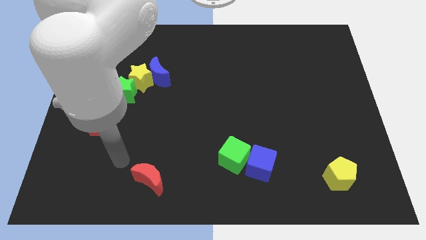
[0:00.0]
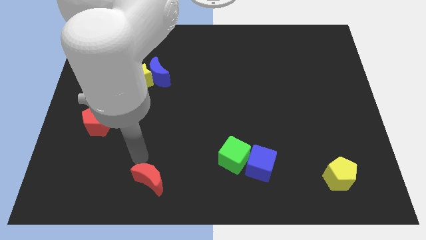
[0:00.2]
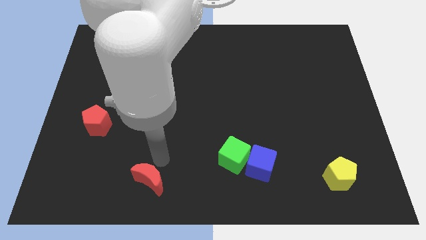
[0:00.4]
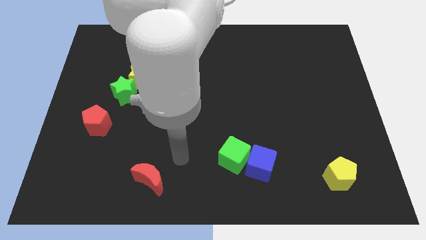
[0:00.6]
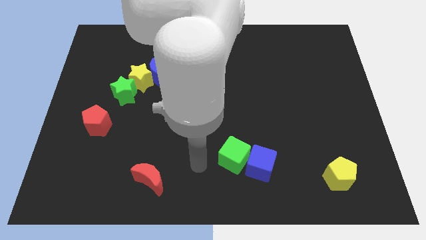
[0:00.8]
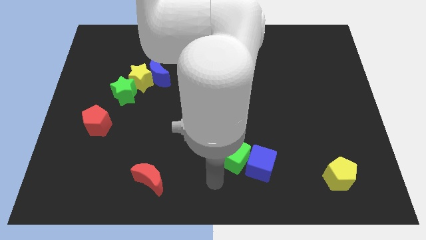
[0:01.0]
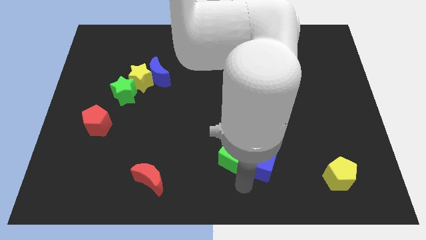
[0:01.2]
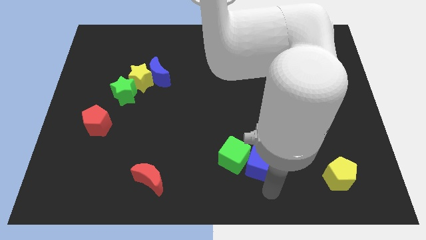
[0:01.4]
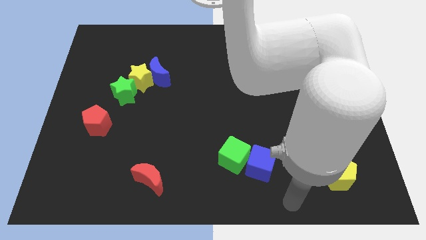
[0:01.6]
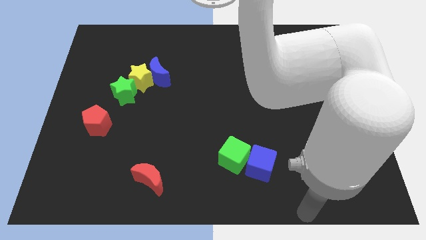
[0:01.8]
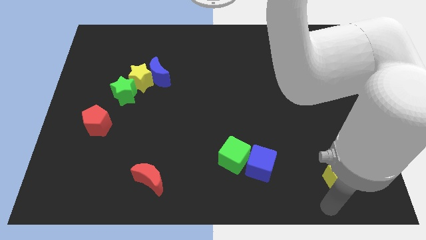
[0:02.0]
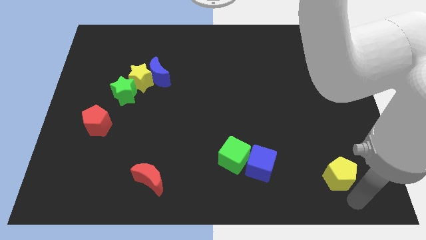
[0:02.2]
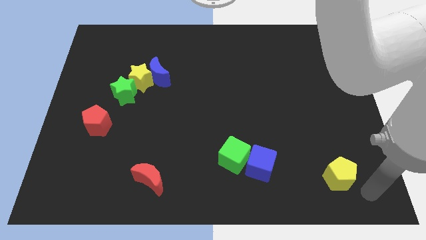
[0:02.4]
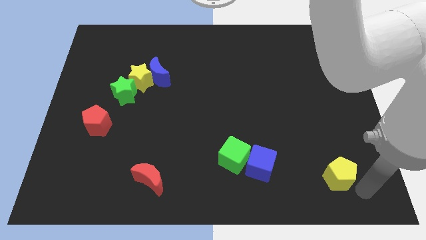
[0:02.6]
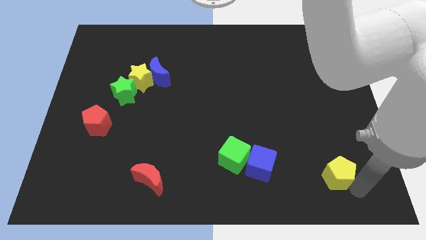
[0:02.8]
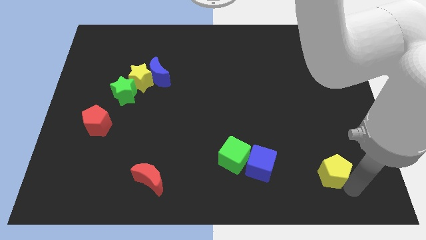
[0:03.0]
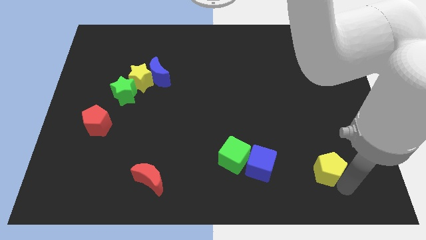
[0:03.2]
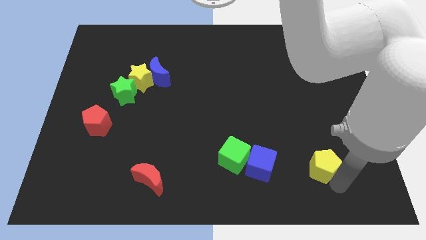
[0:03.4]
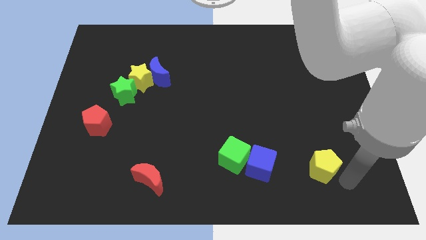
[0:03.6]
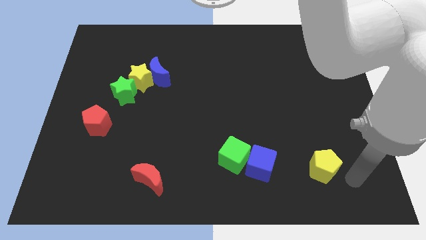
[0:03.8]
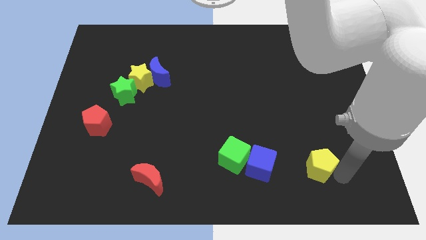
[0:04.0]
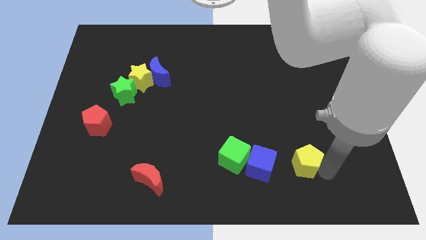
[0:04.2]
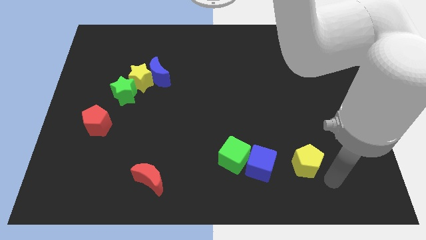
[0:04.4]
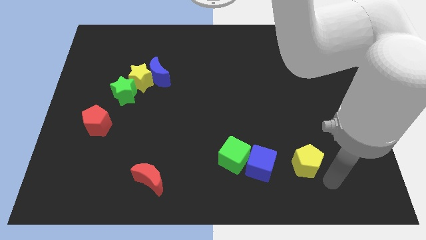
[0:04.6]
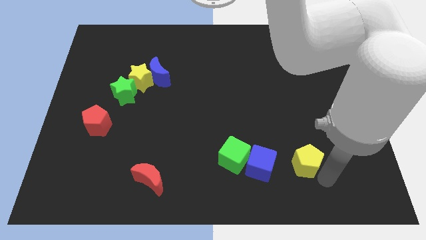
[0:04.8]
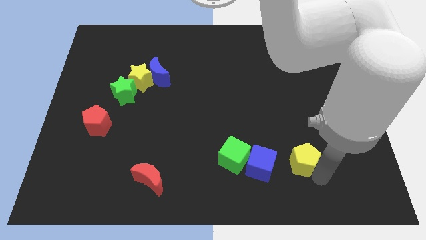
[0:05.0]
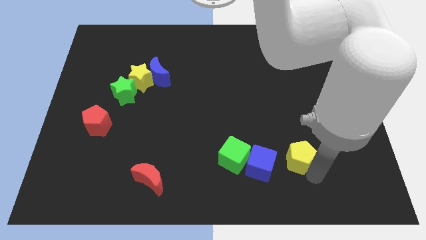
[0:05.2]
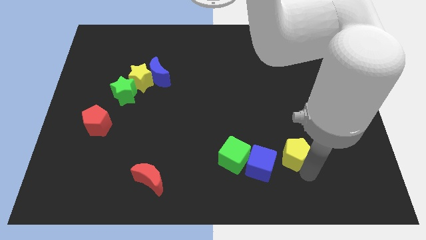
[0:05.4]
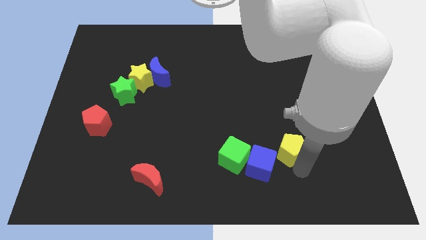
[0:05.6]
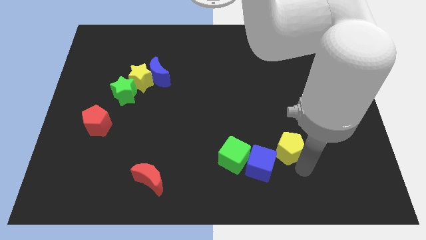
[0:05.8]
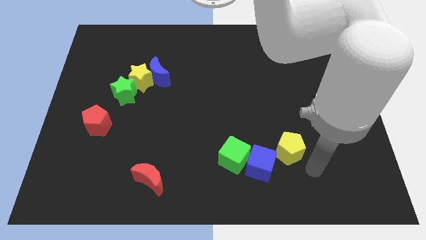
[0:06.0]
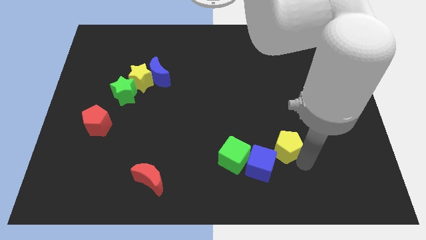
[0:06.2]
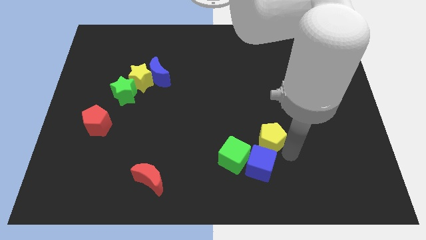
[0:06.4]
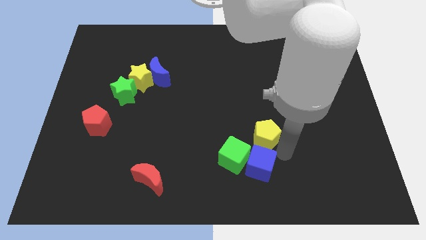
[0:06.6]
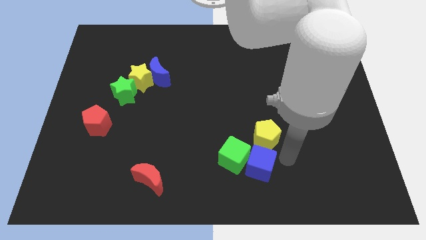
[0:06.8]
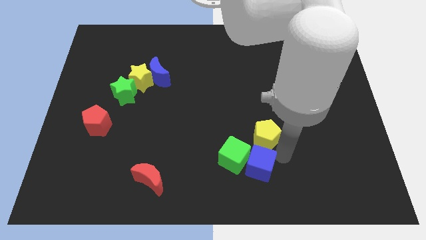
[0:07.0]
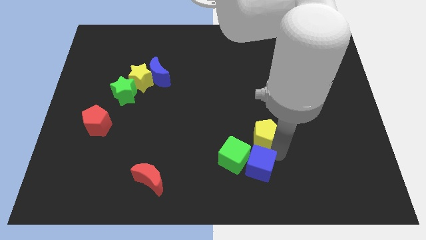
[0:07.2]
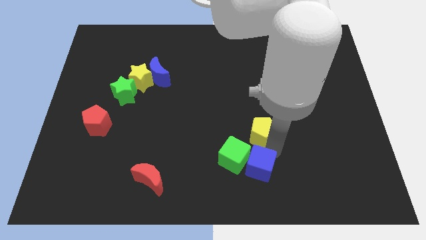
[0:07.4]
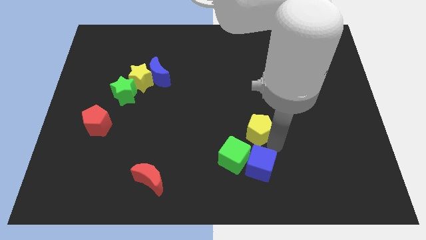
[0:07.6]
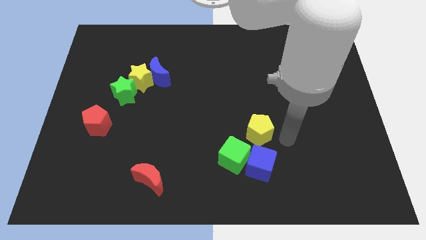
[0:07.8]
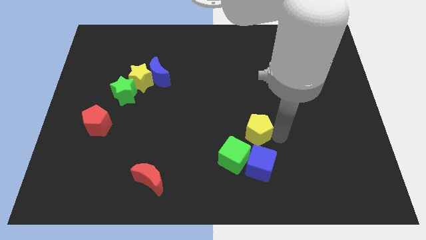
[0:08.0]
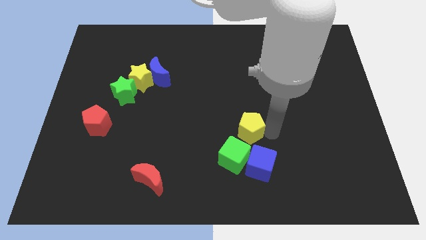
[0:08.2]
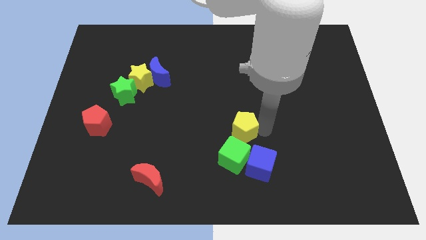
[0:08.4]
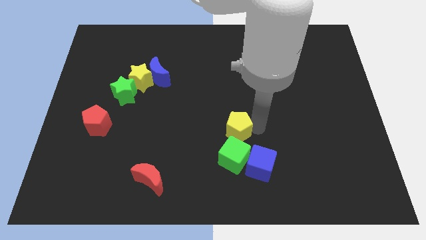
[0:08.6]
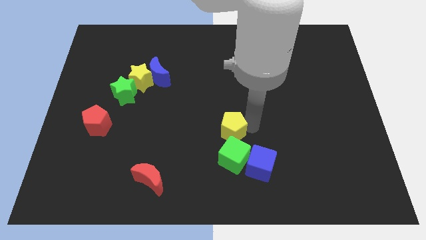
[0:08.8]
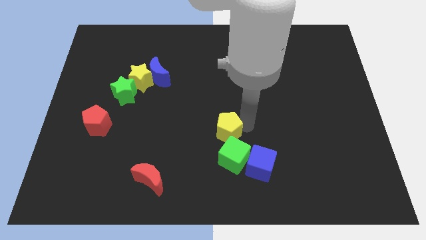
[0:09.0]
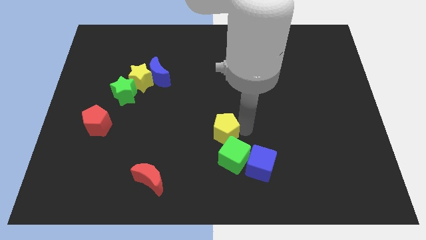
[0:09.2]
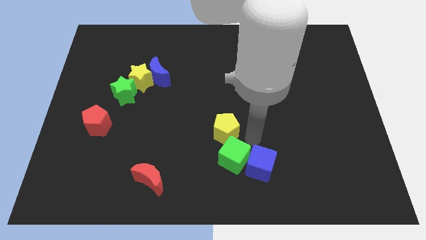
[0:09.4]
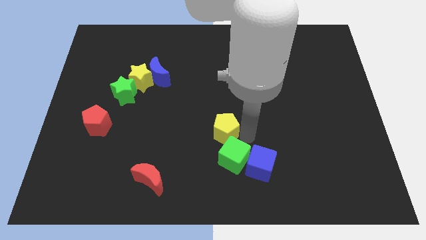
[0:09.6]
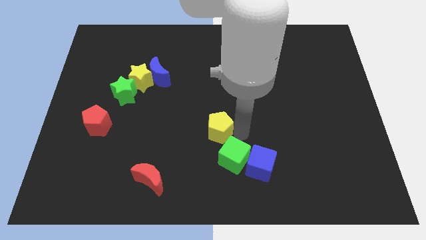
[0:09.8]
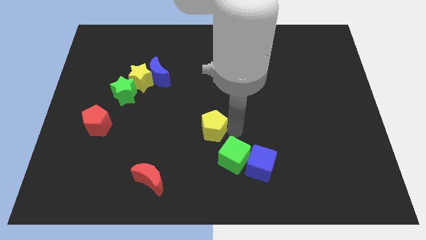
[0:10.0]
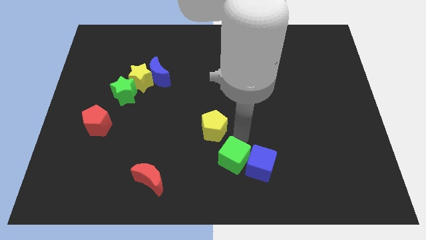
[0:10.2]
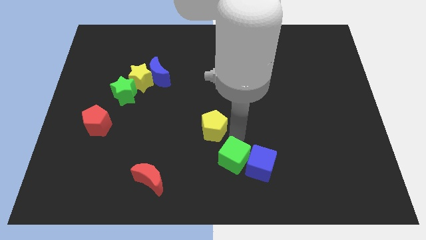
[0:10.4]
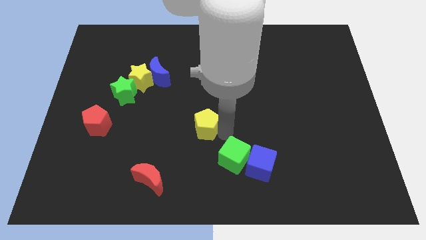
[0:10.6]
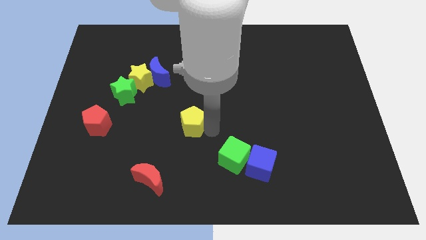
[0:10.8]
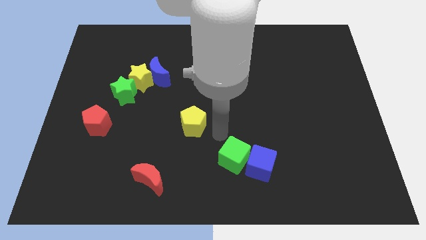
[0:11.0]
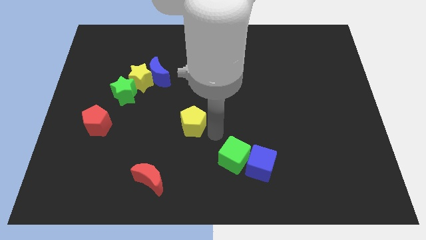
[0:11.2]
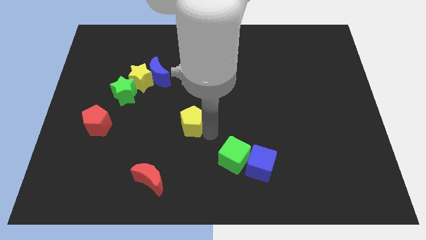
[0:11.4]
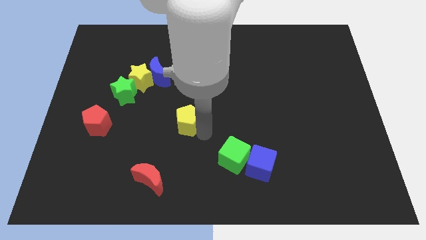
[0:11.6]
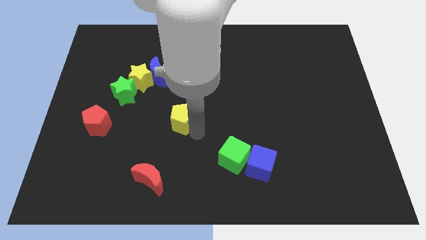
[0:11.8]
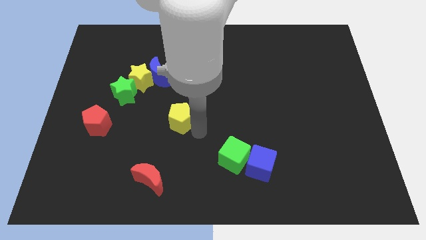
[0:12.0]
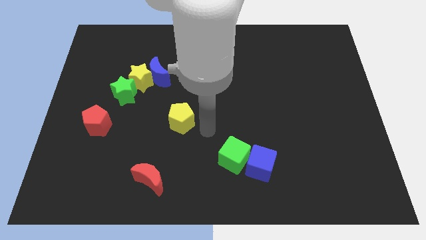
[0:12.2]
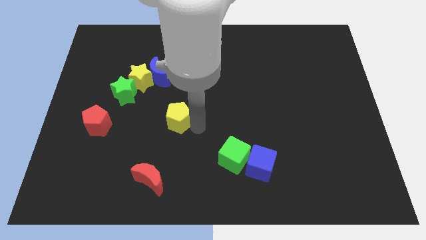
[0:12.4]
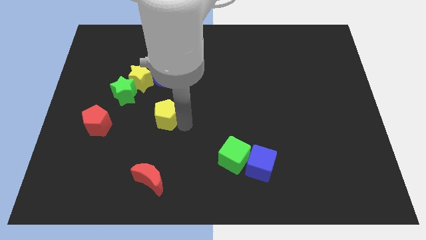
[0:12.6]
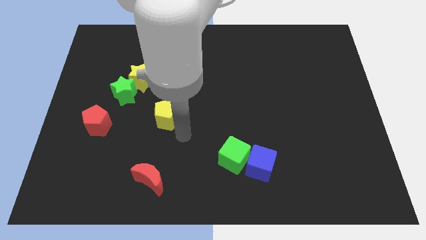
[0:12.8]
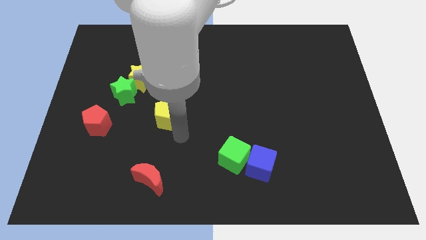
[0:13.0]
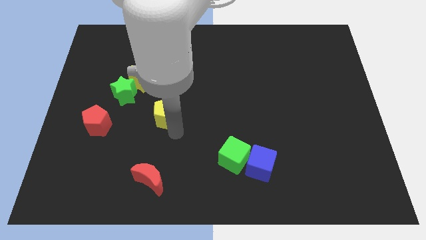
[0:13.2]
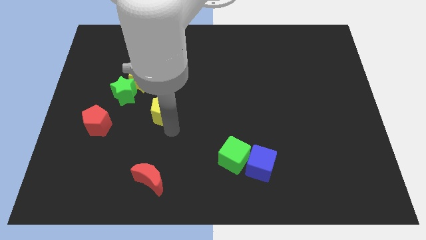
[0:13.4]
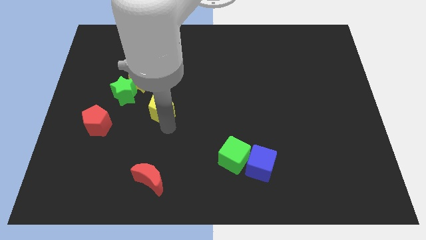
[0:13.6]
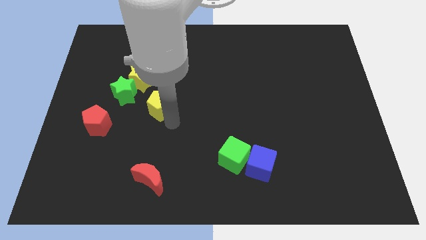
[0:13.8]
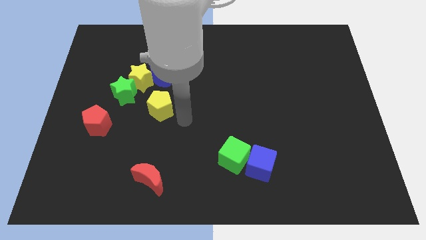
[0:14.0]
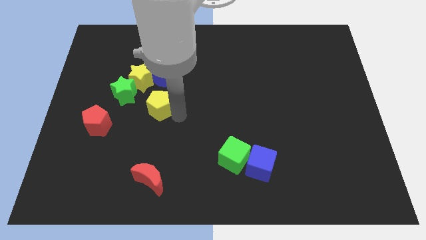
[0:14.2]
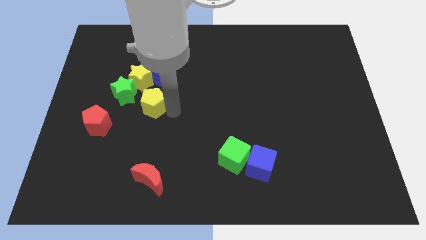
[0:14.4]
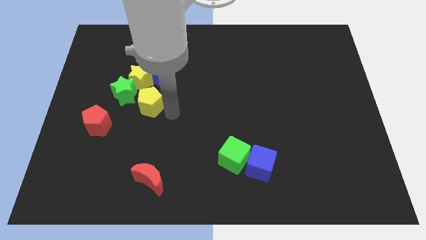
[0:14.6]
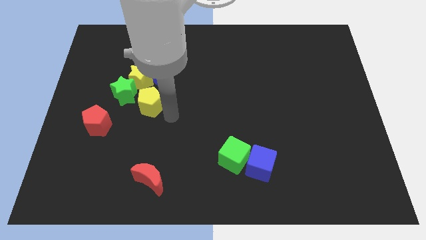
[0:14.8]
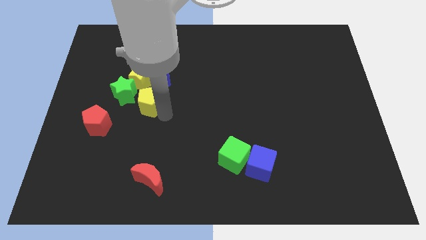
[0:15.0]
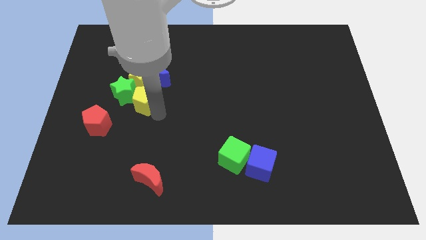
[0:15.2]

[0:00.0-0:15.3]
push the yellow pentagon close to the green star
